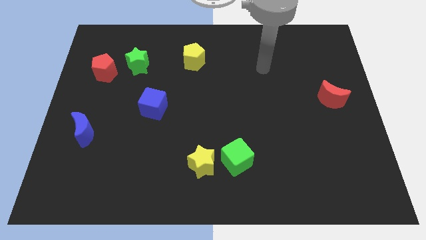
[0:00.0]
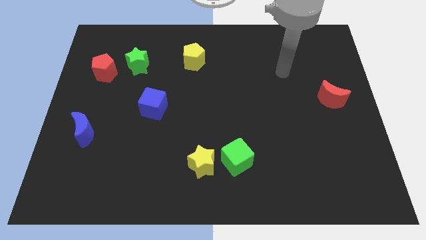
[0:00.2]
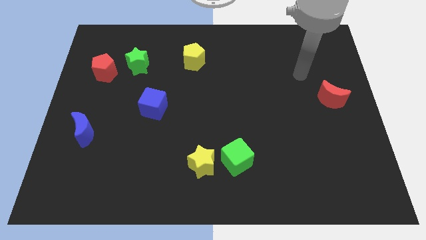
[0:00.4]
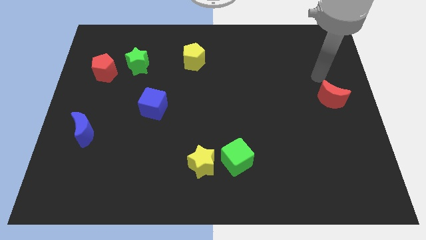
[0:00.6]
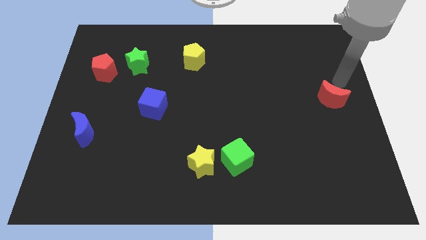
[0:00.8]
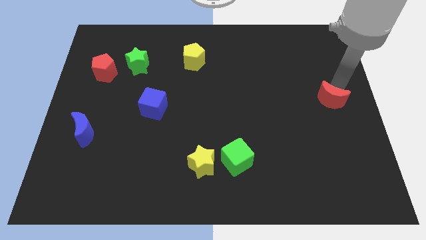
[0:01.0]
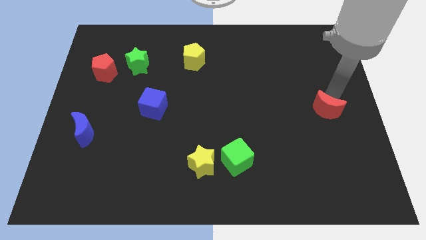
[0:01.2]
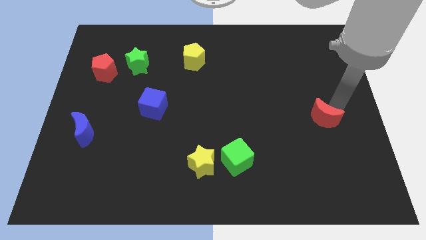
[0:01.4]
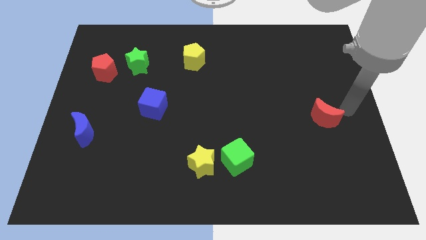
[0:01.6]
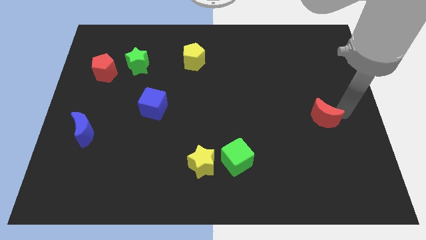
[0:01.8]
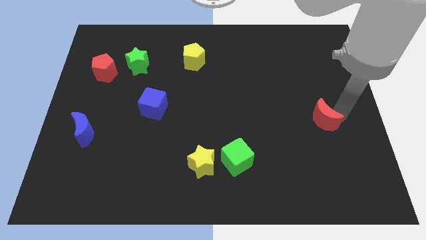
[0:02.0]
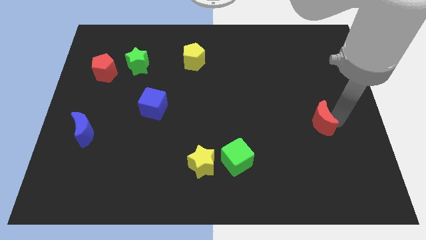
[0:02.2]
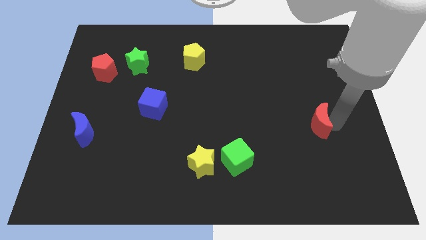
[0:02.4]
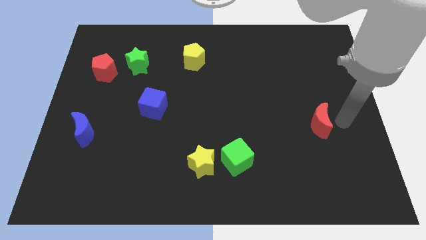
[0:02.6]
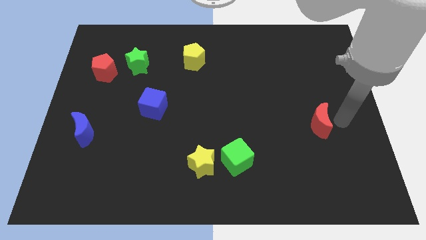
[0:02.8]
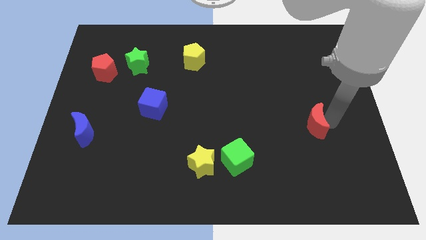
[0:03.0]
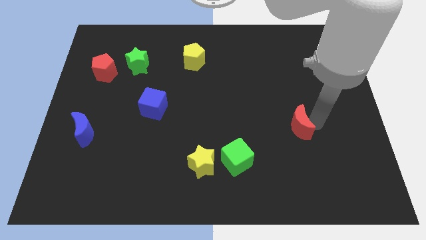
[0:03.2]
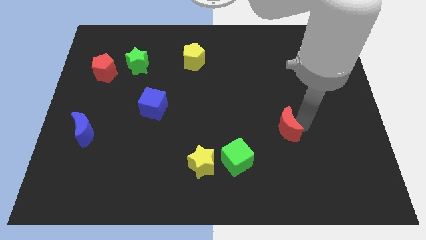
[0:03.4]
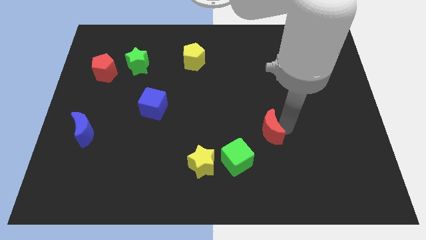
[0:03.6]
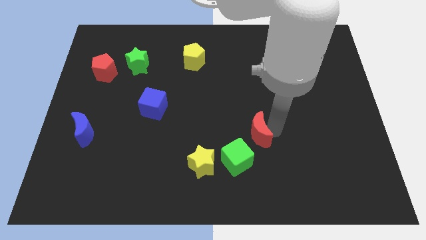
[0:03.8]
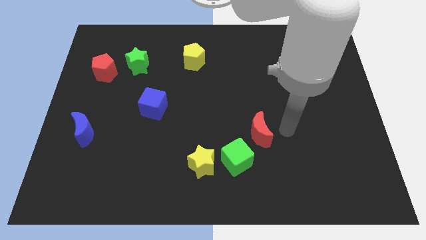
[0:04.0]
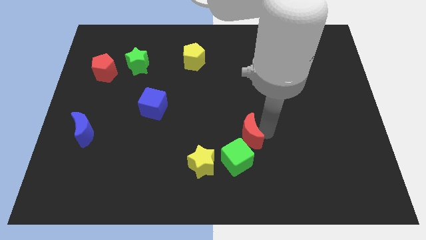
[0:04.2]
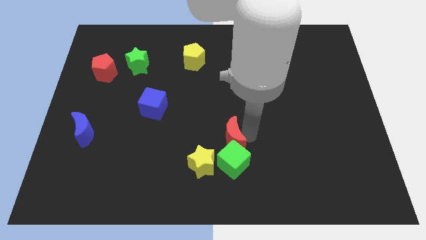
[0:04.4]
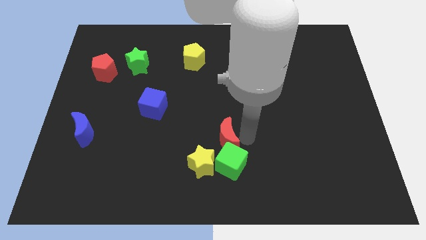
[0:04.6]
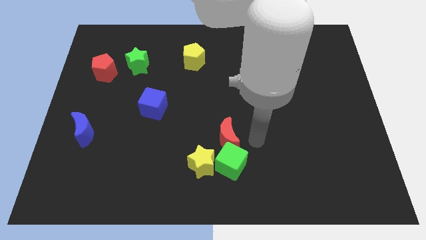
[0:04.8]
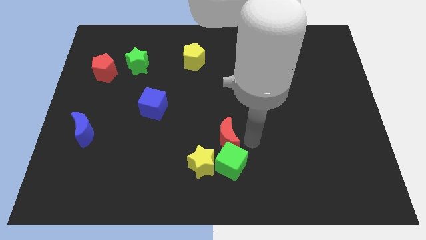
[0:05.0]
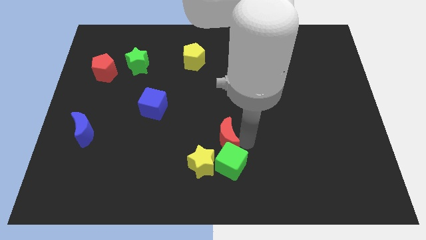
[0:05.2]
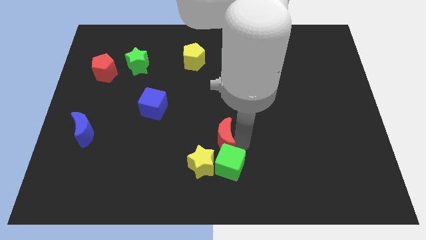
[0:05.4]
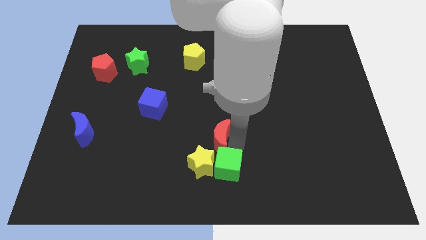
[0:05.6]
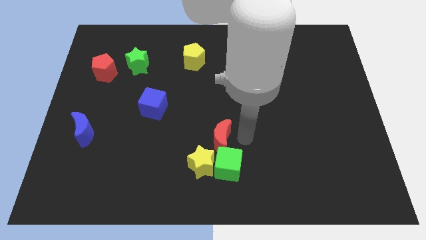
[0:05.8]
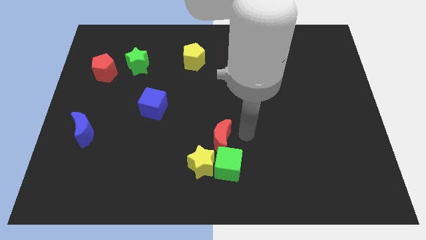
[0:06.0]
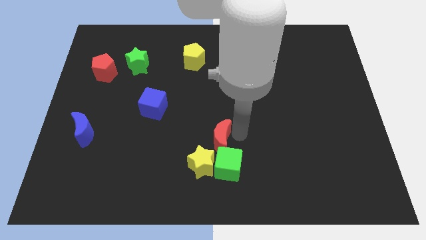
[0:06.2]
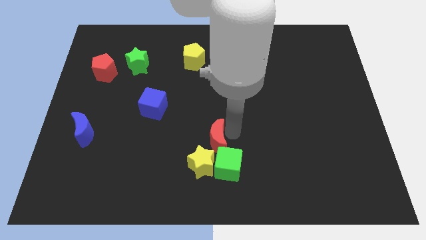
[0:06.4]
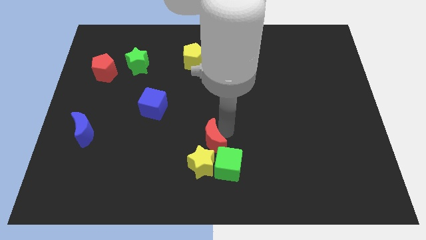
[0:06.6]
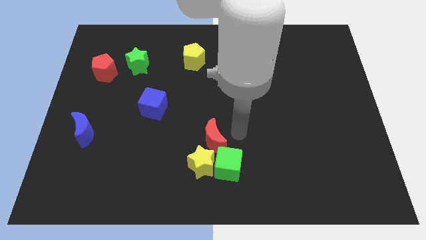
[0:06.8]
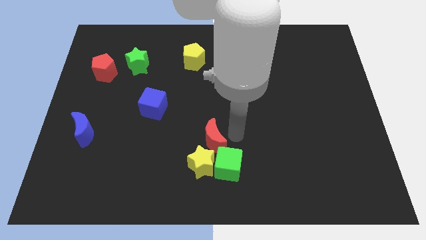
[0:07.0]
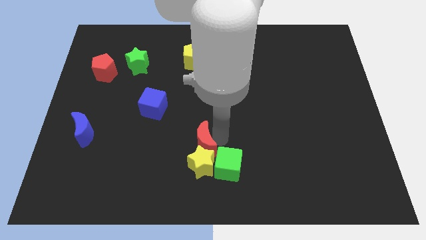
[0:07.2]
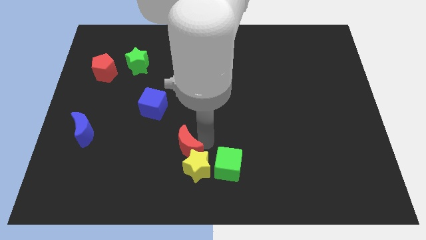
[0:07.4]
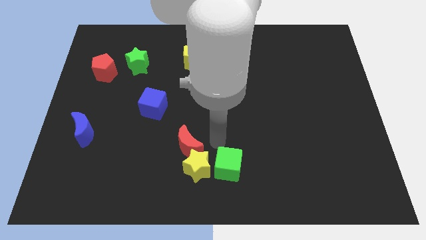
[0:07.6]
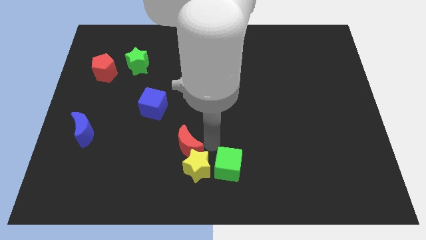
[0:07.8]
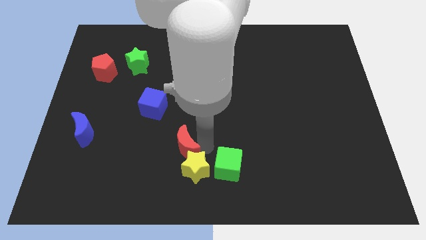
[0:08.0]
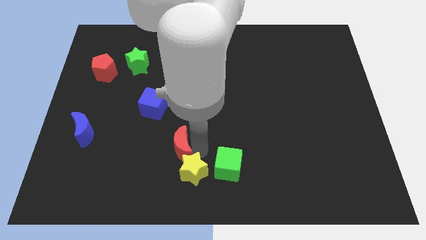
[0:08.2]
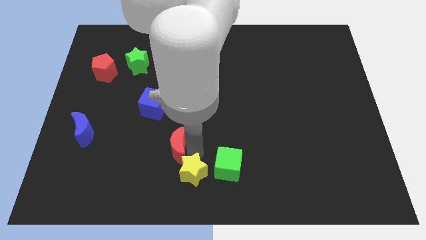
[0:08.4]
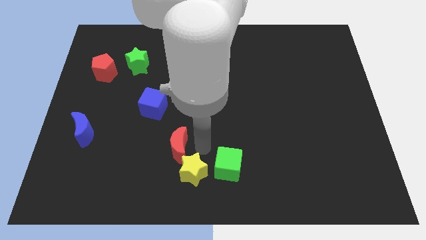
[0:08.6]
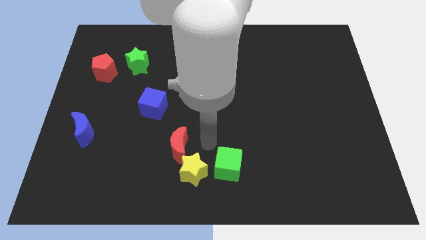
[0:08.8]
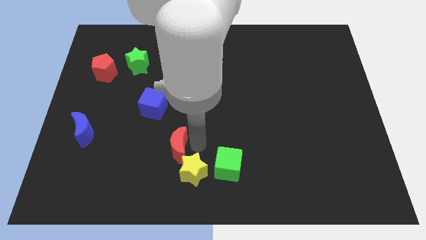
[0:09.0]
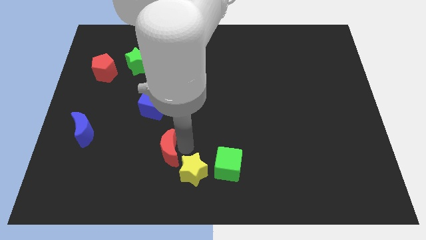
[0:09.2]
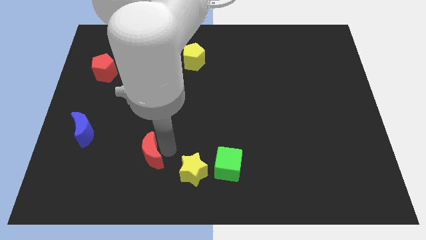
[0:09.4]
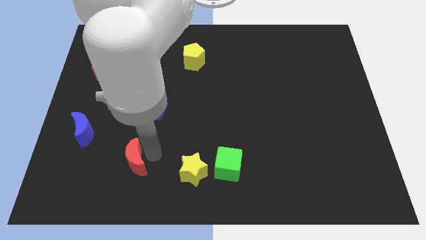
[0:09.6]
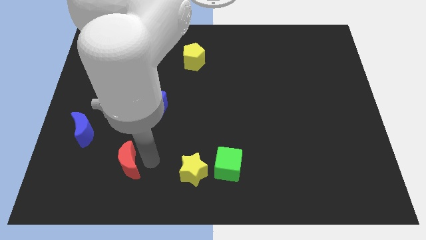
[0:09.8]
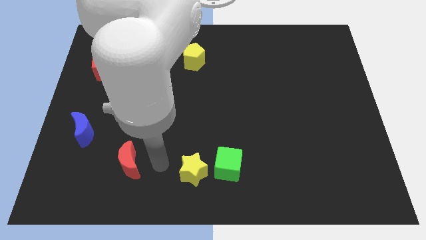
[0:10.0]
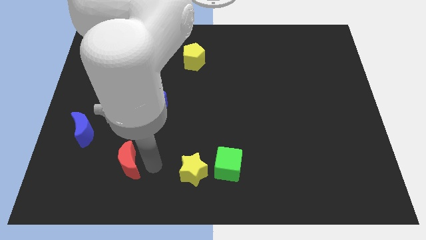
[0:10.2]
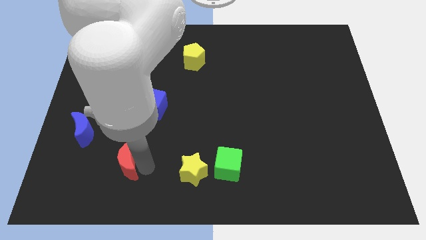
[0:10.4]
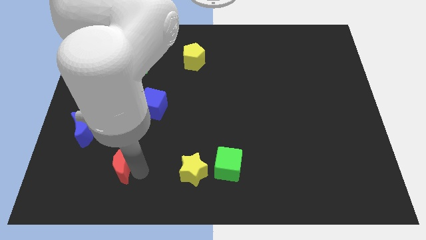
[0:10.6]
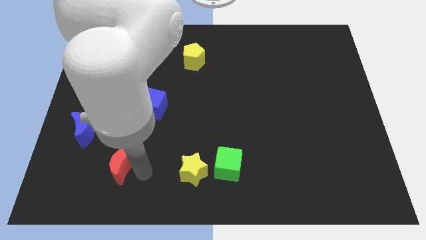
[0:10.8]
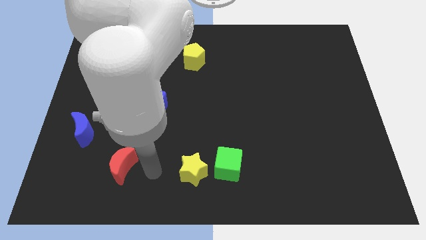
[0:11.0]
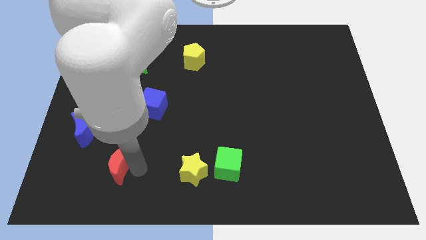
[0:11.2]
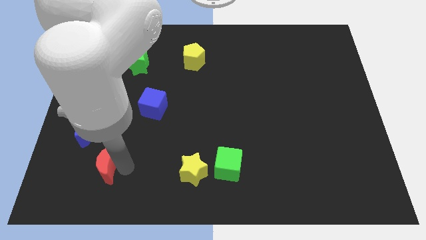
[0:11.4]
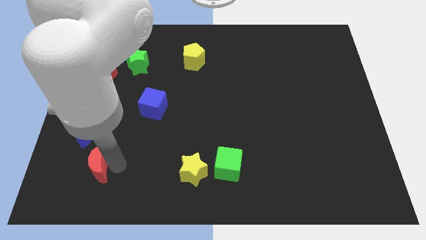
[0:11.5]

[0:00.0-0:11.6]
slide the red moon to the bottom of the blue moon

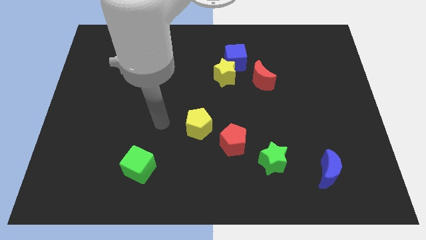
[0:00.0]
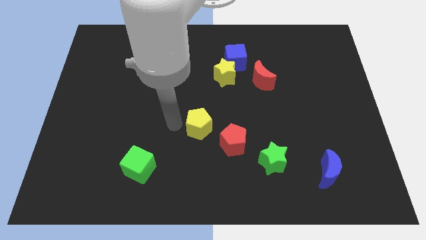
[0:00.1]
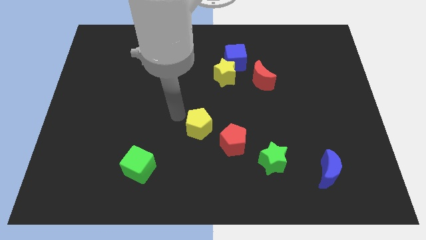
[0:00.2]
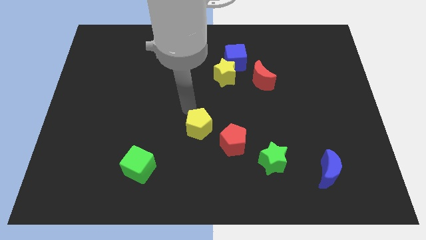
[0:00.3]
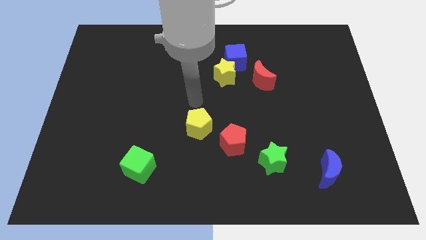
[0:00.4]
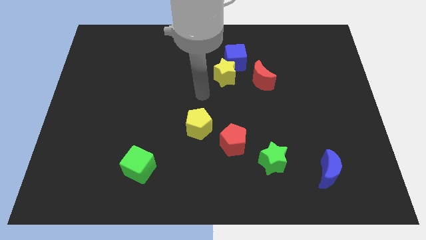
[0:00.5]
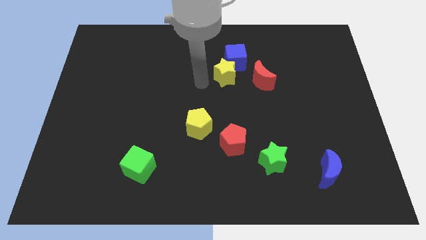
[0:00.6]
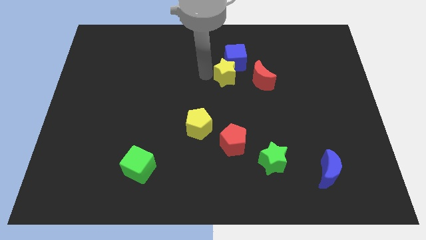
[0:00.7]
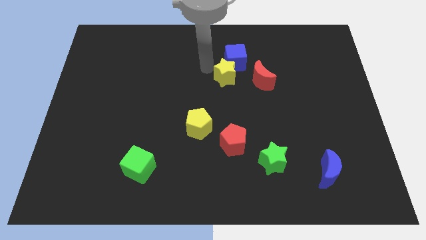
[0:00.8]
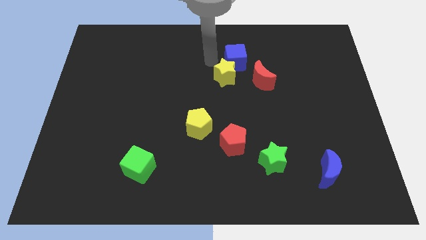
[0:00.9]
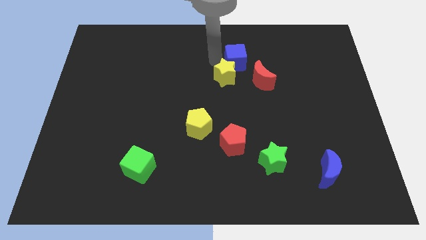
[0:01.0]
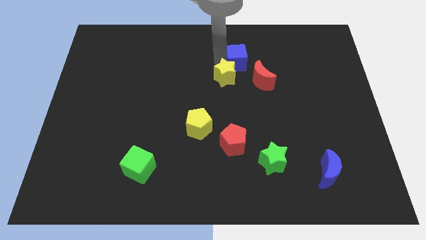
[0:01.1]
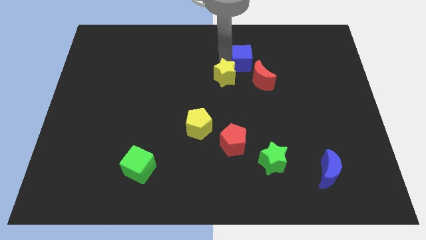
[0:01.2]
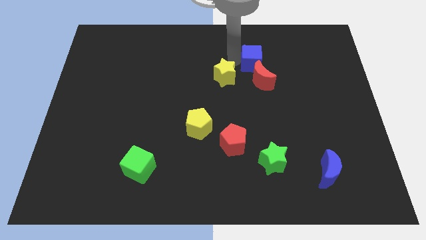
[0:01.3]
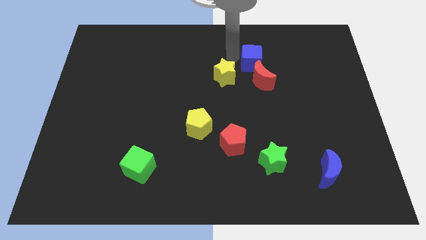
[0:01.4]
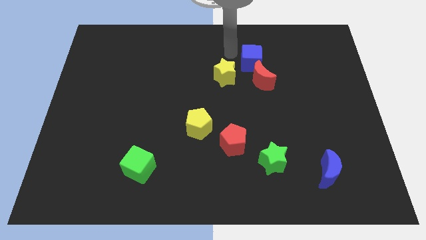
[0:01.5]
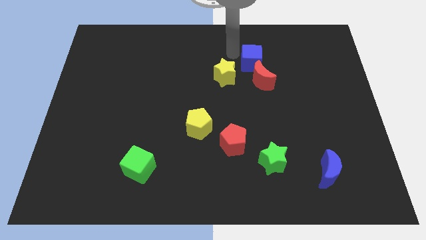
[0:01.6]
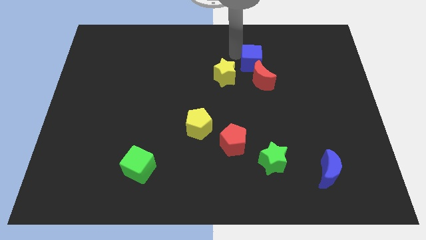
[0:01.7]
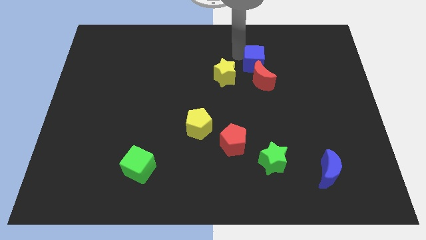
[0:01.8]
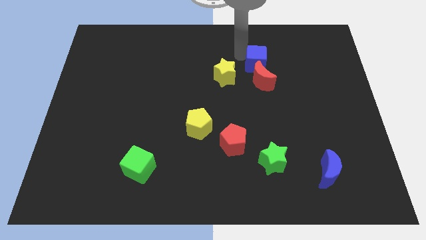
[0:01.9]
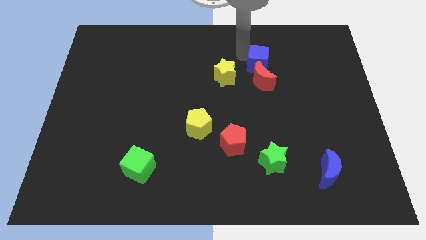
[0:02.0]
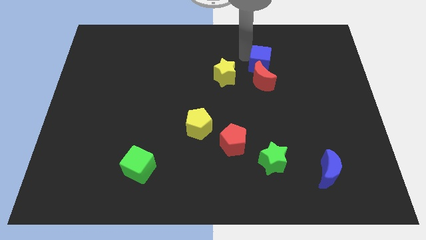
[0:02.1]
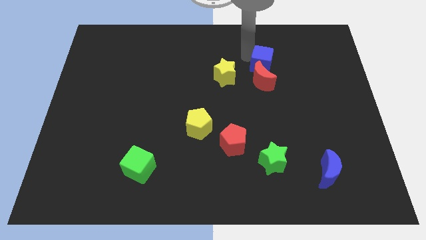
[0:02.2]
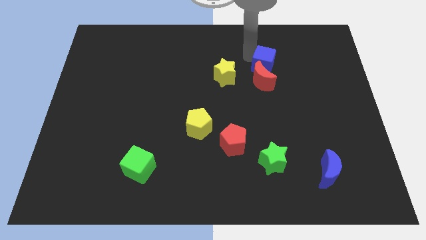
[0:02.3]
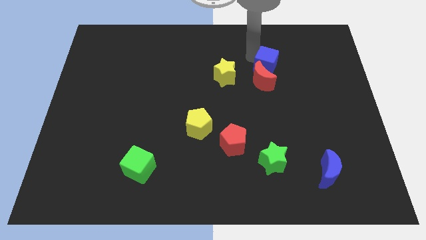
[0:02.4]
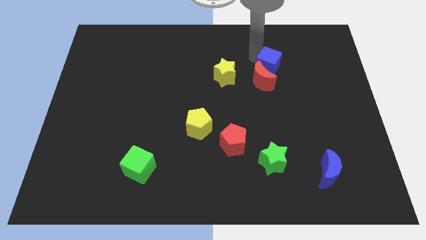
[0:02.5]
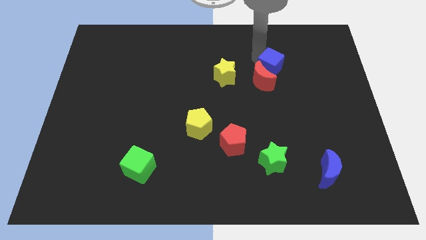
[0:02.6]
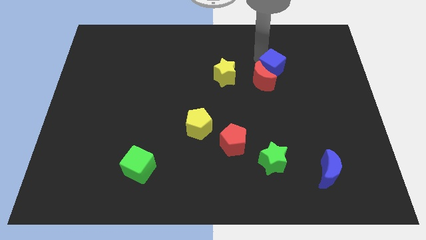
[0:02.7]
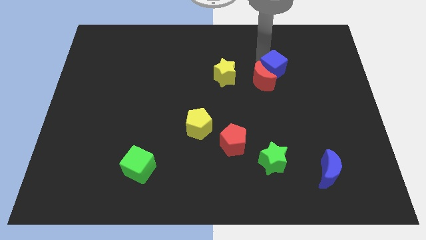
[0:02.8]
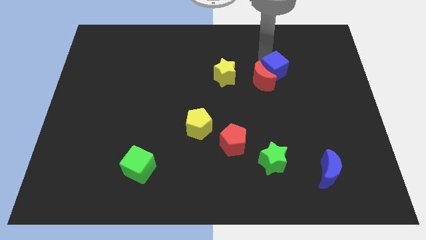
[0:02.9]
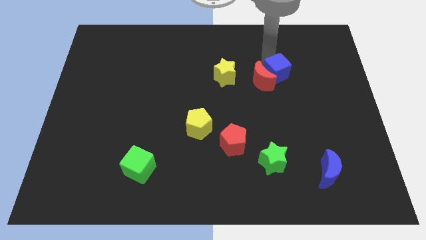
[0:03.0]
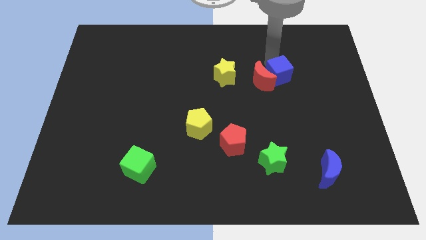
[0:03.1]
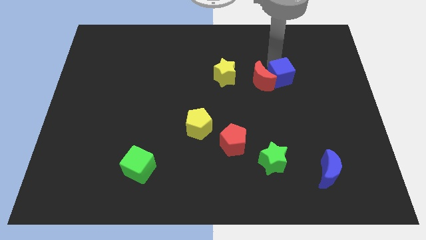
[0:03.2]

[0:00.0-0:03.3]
push the blue cube diagonally down and to the right of the red moon
